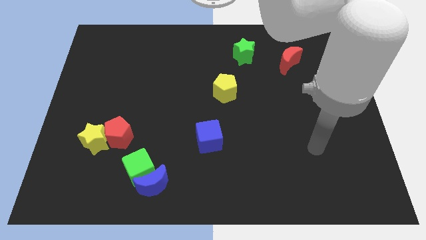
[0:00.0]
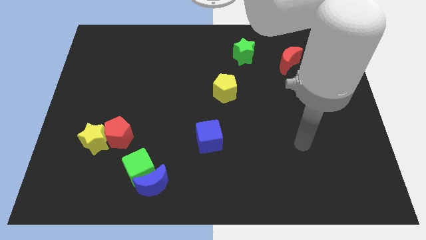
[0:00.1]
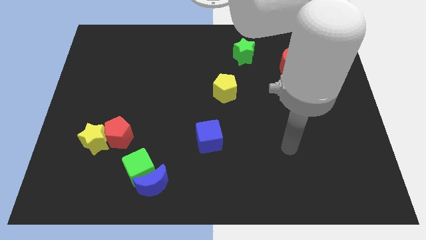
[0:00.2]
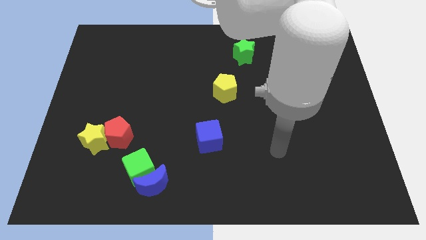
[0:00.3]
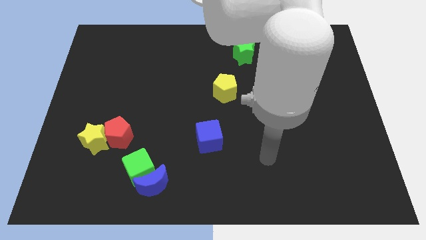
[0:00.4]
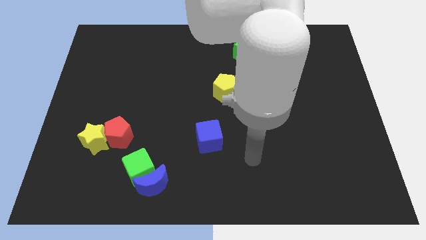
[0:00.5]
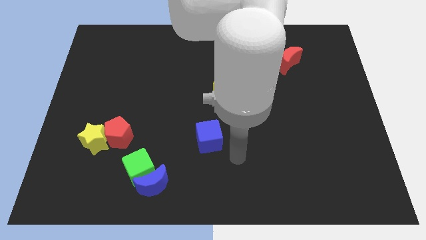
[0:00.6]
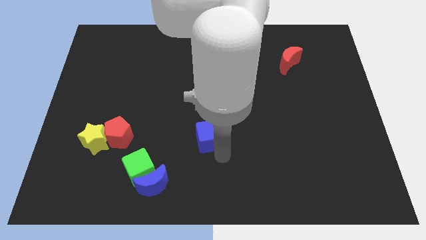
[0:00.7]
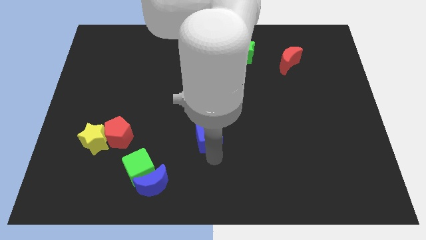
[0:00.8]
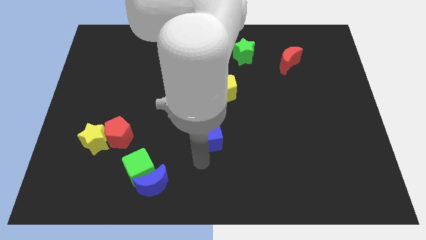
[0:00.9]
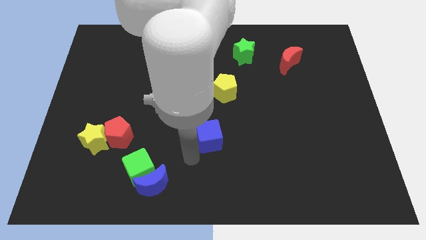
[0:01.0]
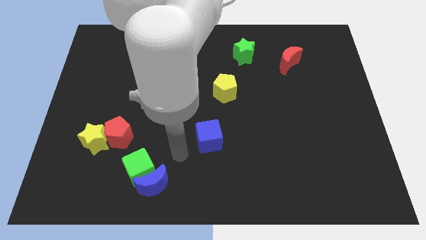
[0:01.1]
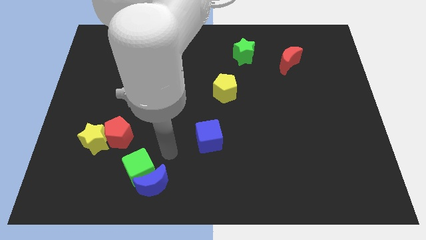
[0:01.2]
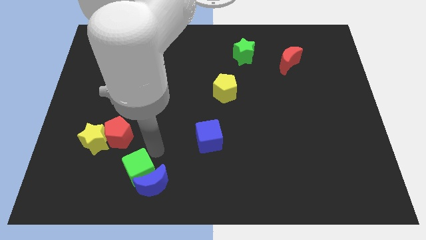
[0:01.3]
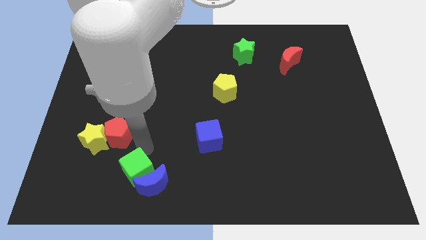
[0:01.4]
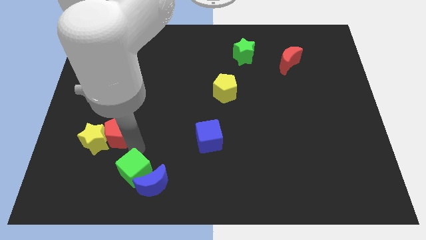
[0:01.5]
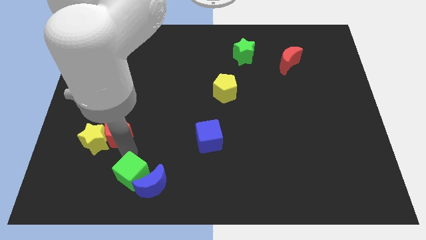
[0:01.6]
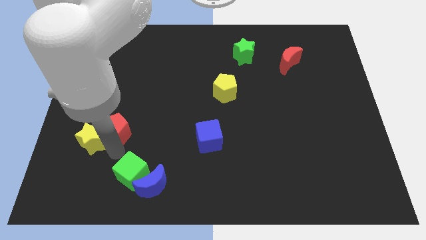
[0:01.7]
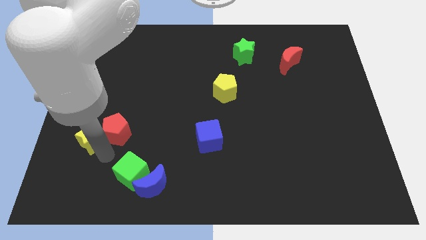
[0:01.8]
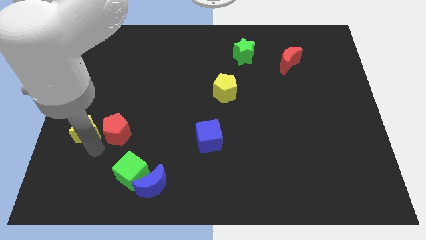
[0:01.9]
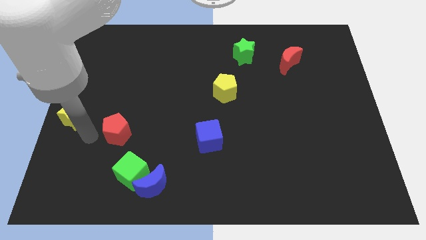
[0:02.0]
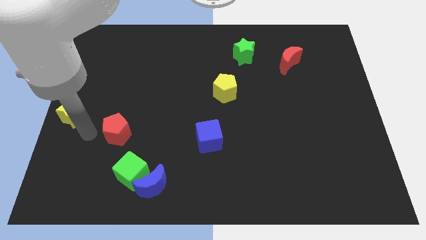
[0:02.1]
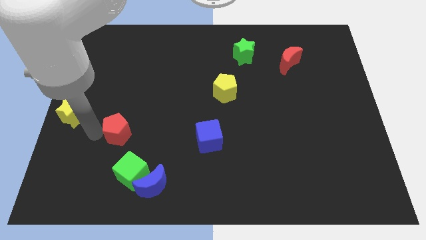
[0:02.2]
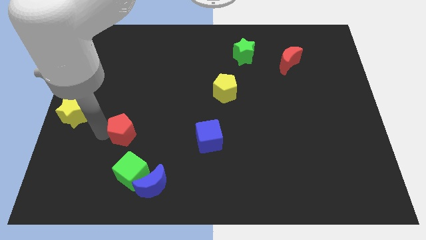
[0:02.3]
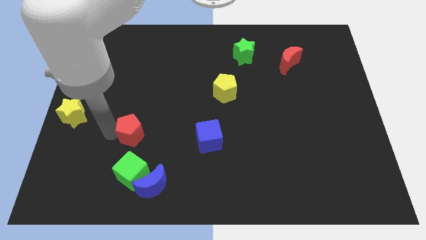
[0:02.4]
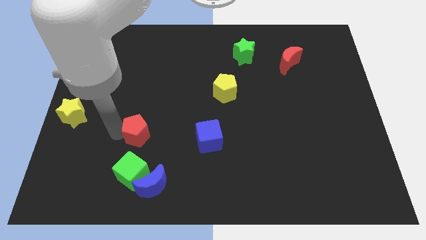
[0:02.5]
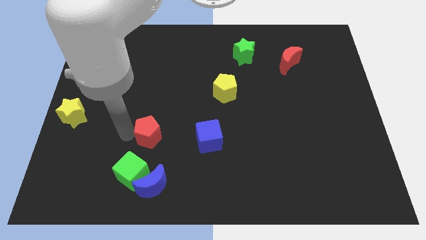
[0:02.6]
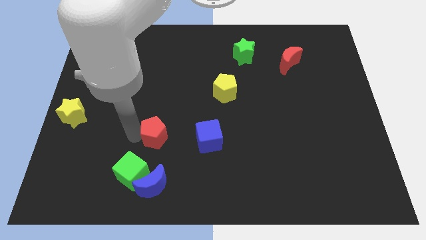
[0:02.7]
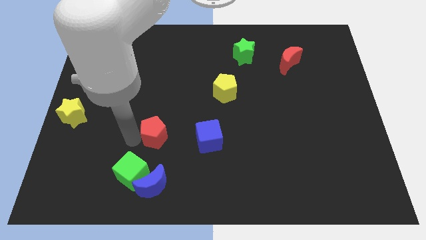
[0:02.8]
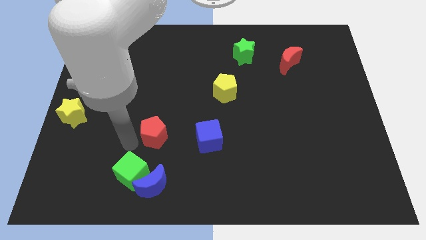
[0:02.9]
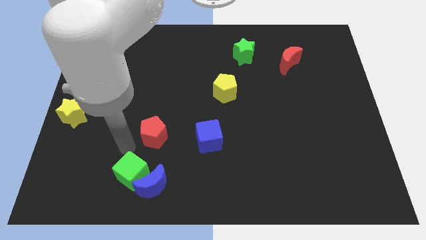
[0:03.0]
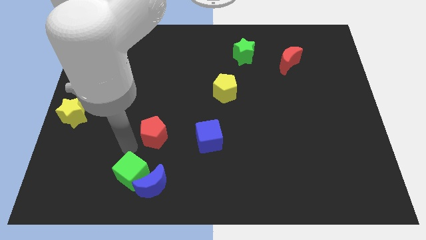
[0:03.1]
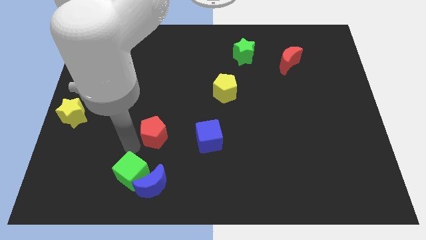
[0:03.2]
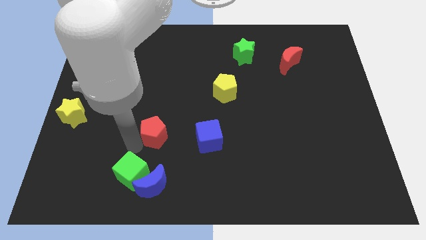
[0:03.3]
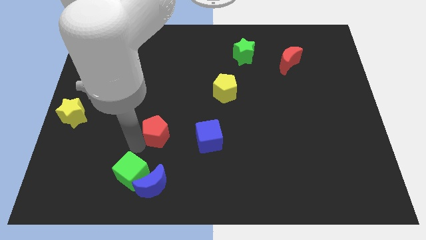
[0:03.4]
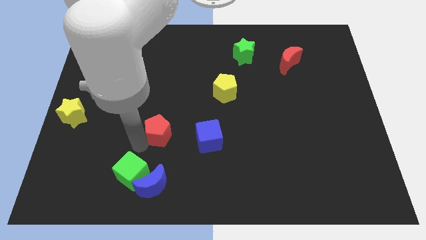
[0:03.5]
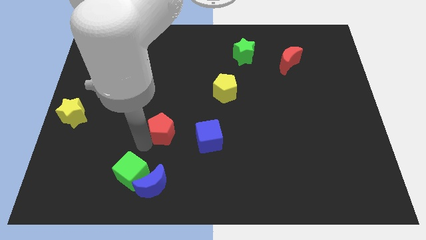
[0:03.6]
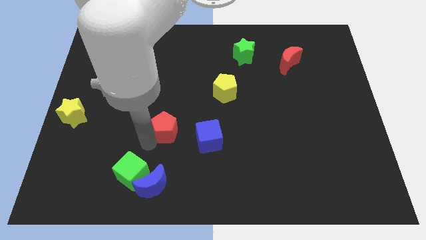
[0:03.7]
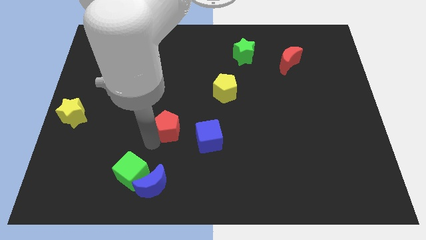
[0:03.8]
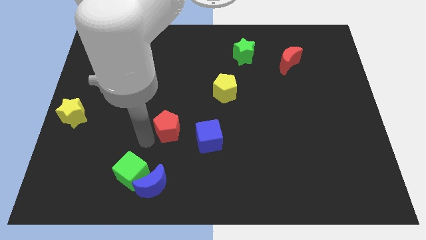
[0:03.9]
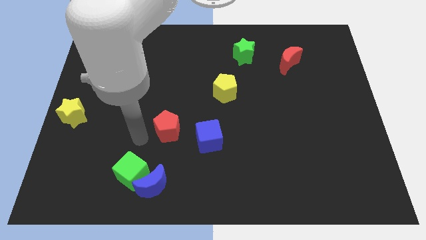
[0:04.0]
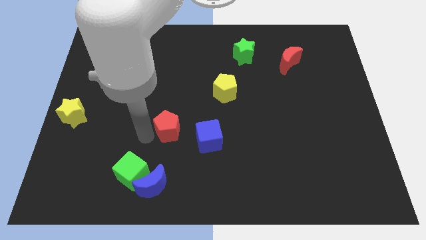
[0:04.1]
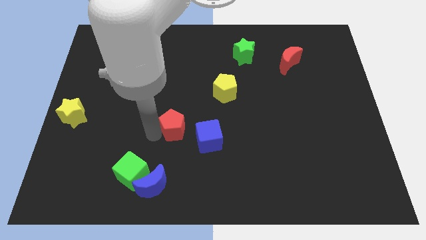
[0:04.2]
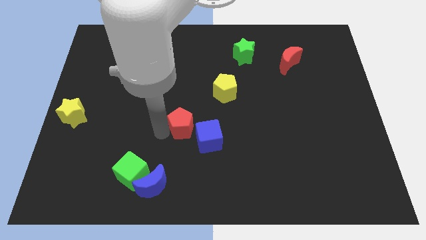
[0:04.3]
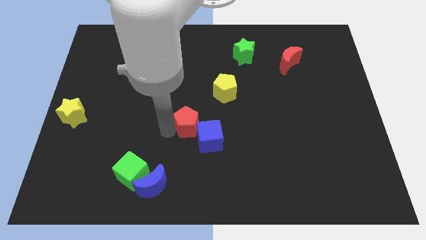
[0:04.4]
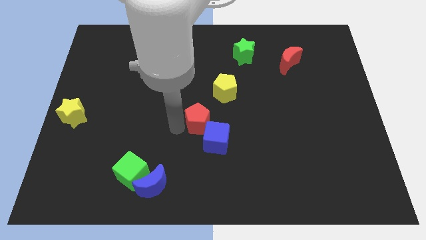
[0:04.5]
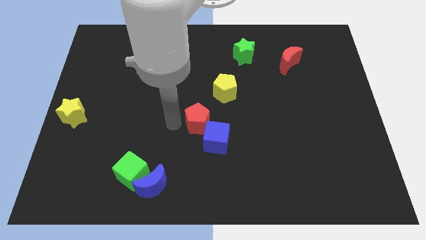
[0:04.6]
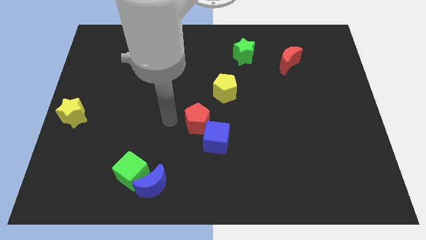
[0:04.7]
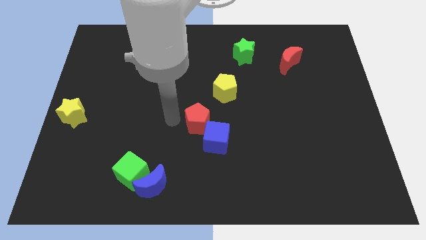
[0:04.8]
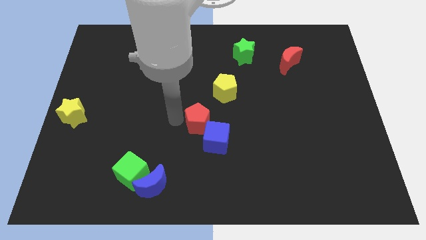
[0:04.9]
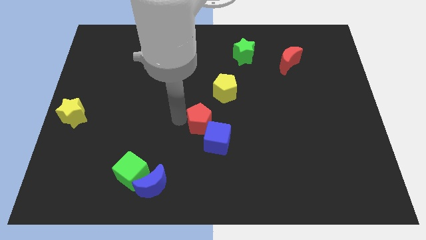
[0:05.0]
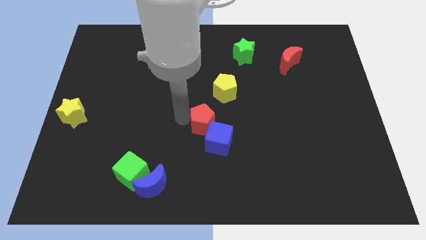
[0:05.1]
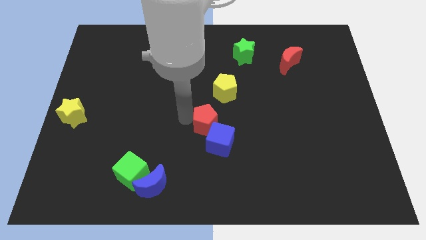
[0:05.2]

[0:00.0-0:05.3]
put the red pentagon below the yellow pentagon

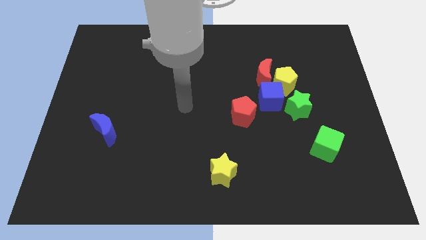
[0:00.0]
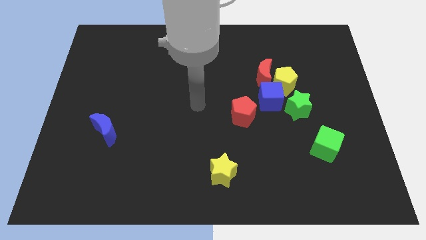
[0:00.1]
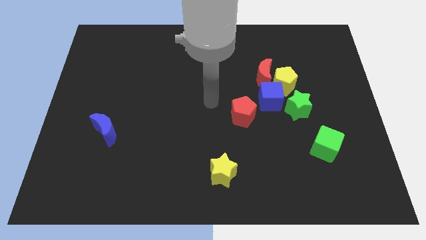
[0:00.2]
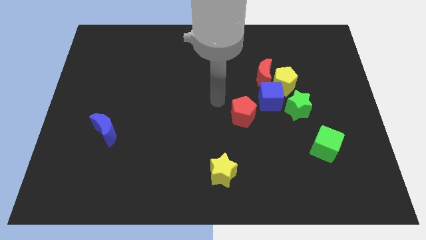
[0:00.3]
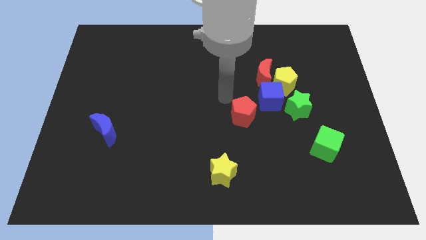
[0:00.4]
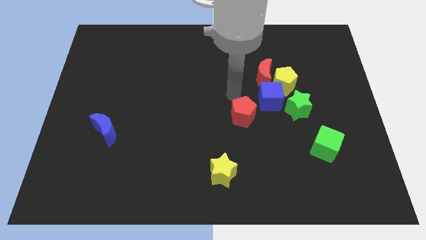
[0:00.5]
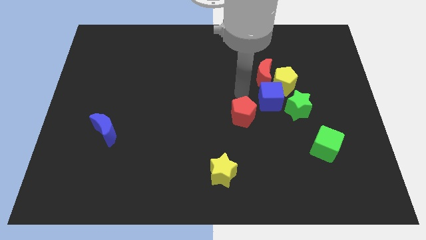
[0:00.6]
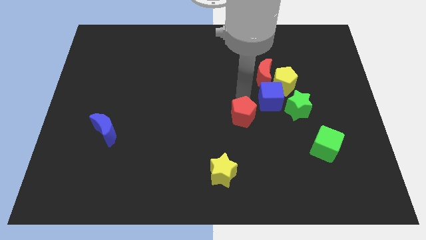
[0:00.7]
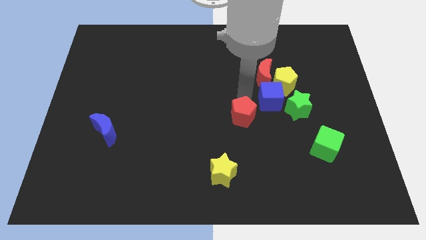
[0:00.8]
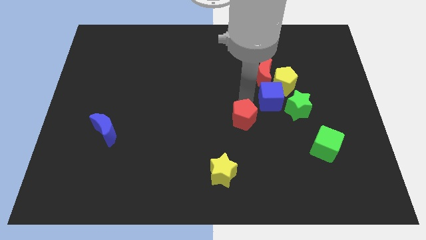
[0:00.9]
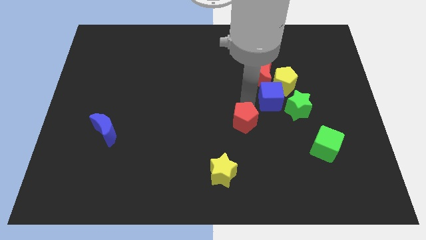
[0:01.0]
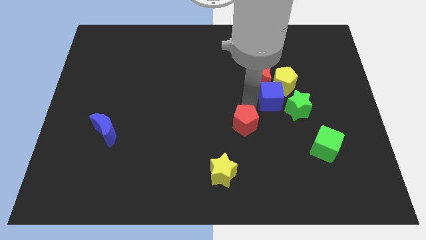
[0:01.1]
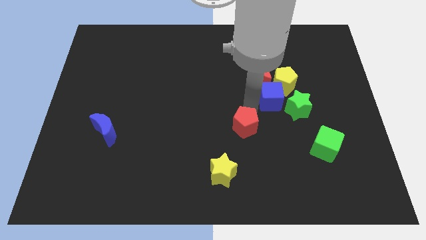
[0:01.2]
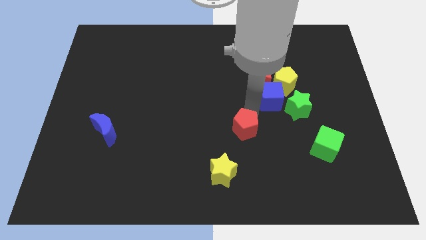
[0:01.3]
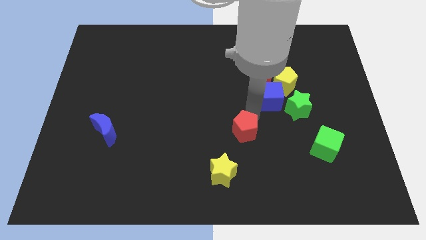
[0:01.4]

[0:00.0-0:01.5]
push the red pentagon diagonally up and to the right of the yellow star
